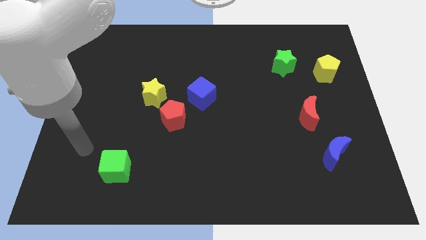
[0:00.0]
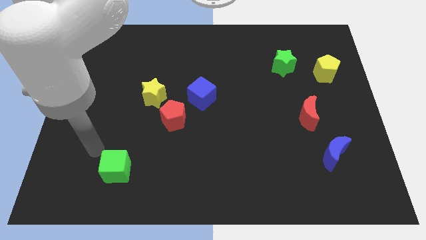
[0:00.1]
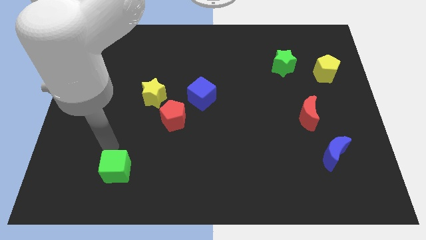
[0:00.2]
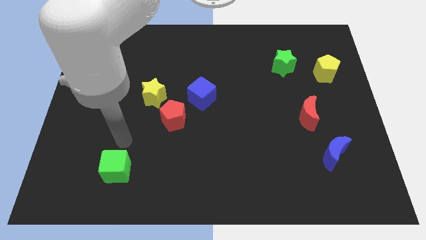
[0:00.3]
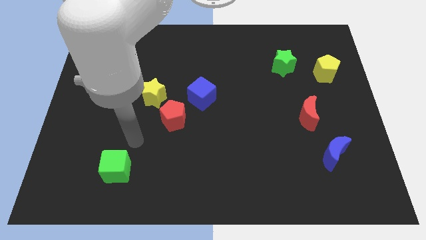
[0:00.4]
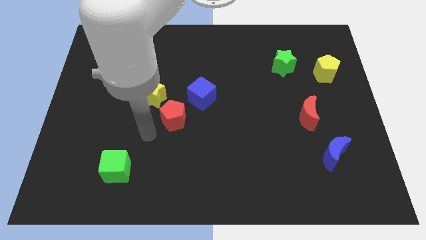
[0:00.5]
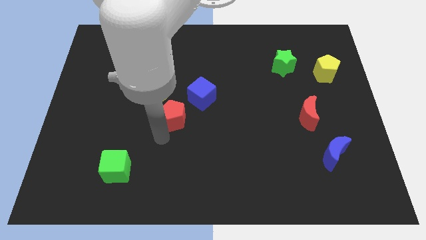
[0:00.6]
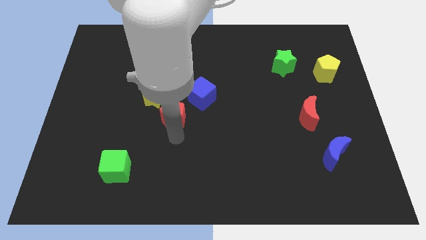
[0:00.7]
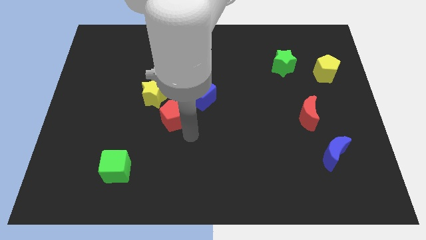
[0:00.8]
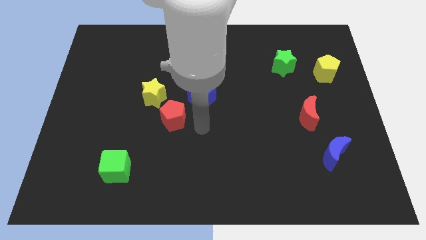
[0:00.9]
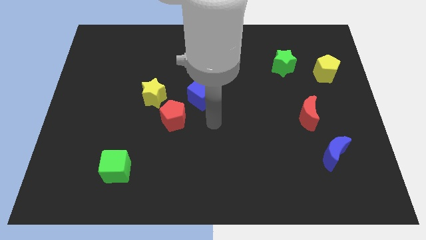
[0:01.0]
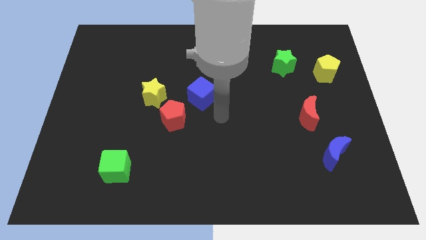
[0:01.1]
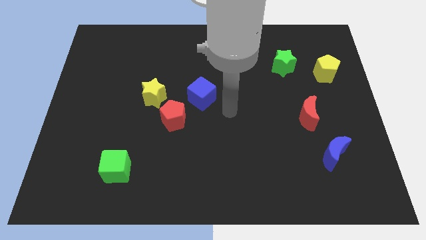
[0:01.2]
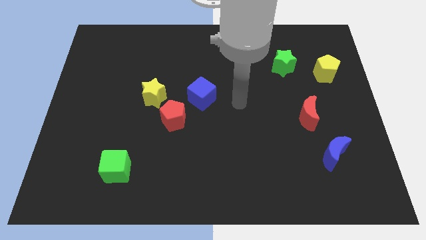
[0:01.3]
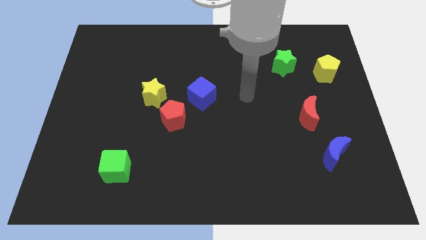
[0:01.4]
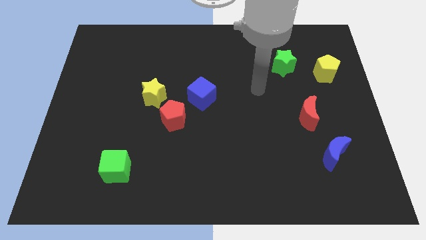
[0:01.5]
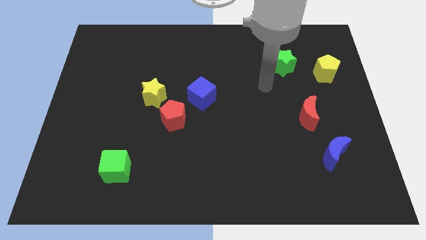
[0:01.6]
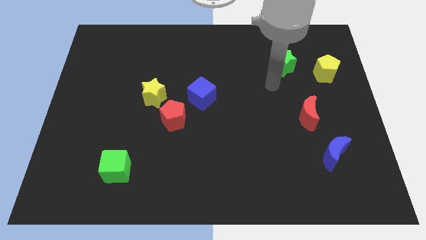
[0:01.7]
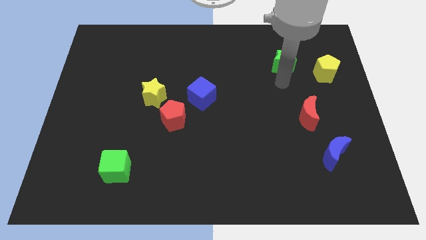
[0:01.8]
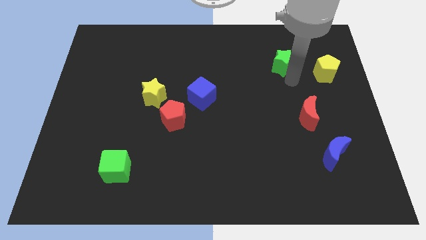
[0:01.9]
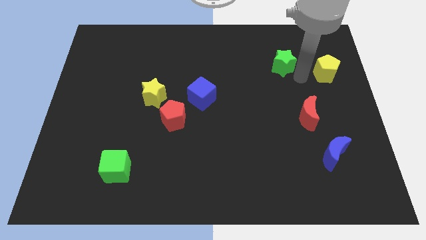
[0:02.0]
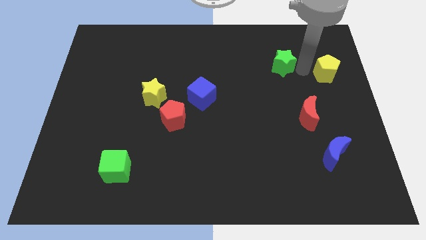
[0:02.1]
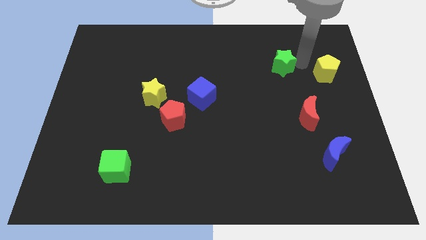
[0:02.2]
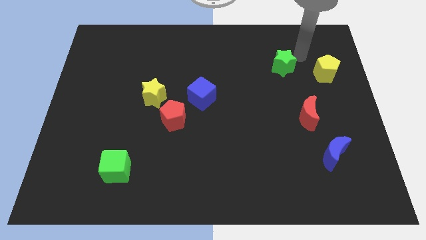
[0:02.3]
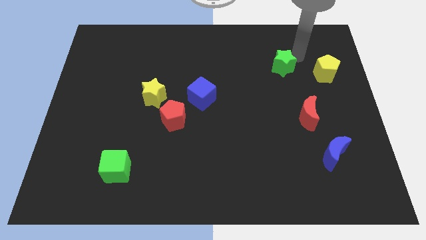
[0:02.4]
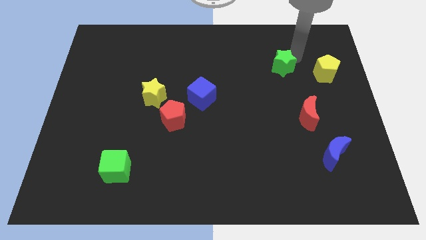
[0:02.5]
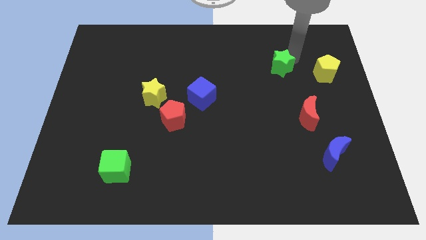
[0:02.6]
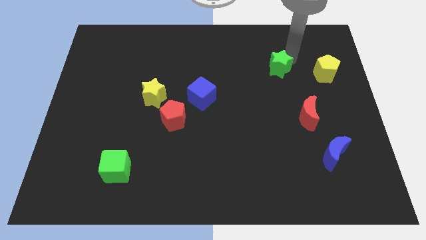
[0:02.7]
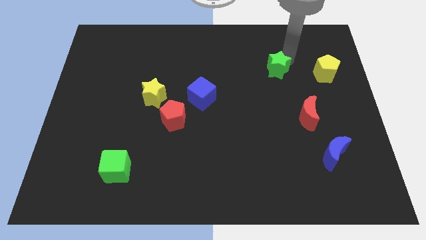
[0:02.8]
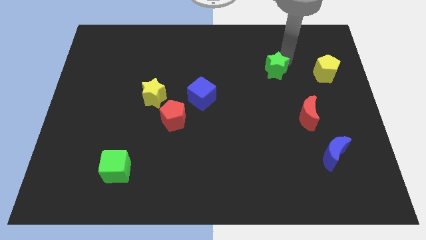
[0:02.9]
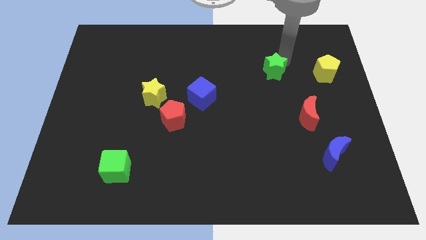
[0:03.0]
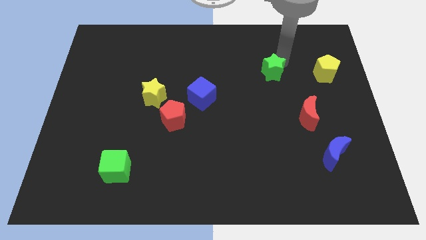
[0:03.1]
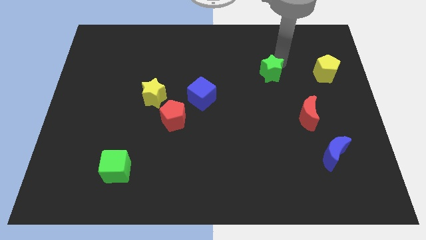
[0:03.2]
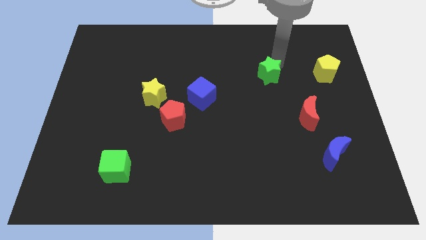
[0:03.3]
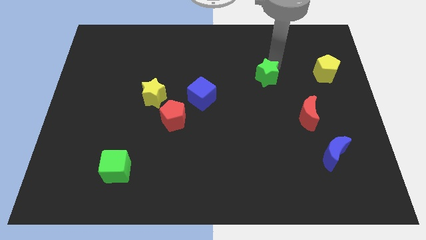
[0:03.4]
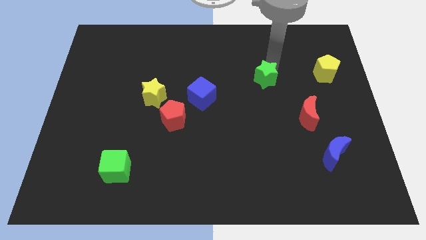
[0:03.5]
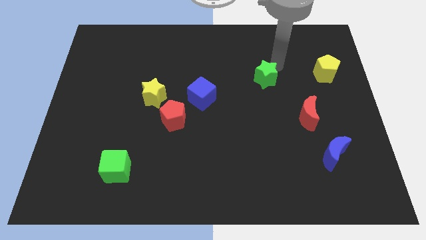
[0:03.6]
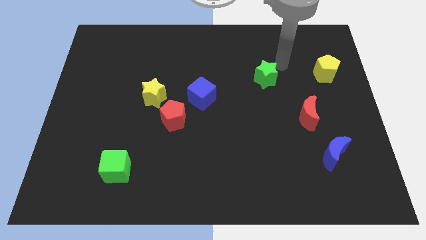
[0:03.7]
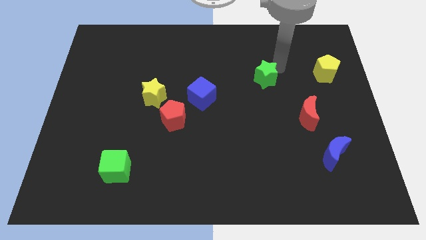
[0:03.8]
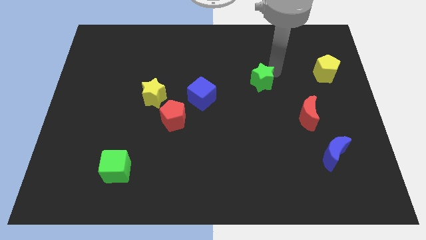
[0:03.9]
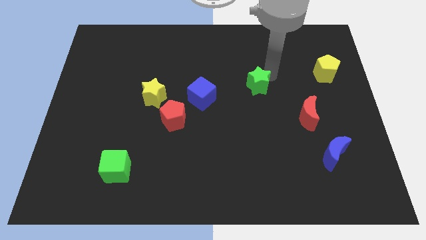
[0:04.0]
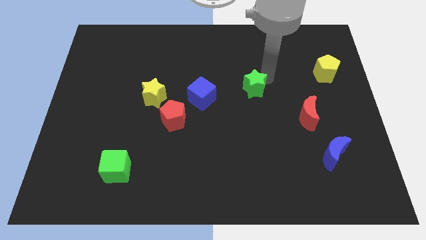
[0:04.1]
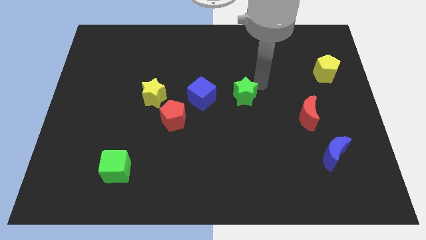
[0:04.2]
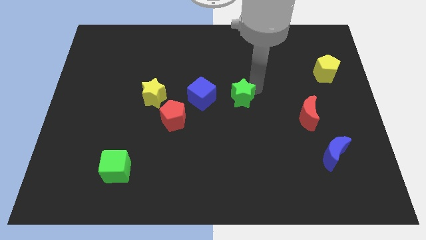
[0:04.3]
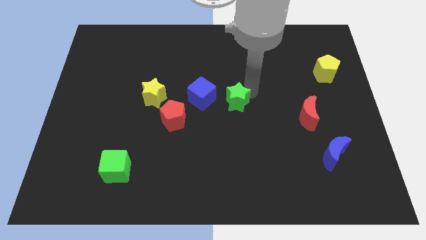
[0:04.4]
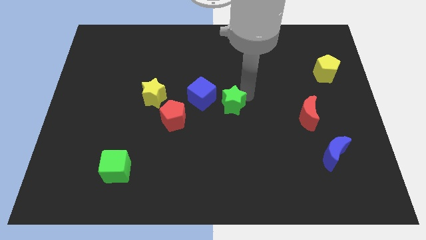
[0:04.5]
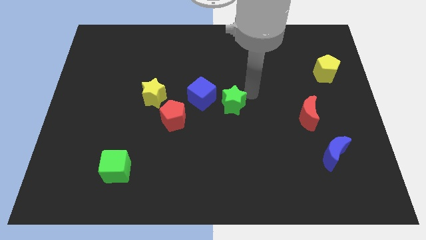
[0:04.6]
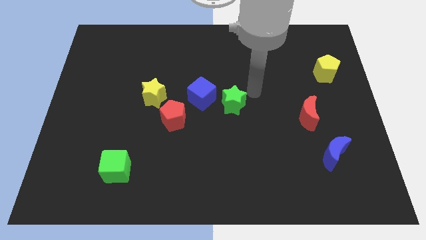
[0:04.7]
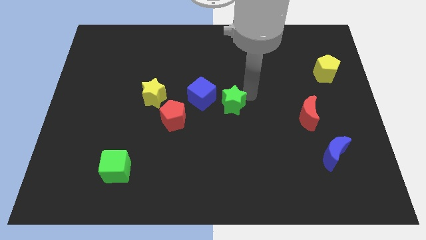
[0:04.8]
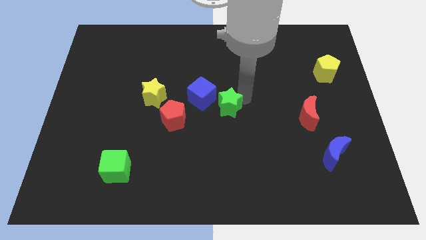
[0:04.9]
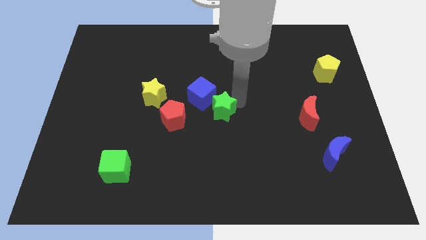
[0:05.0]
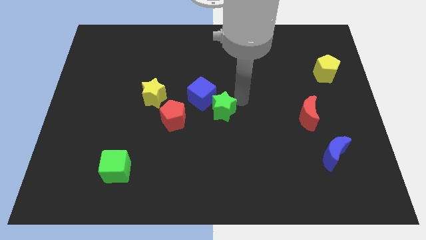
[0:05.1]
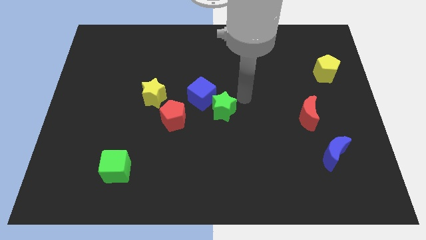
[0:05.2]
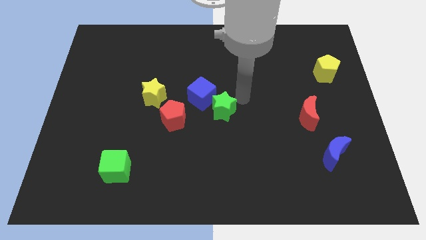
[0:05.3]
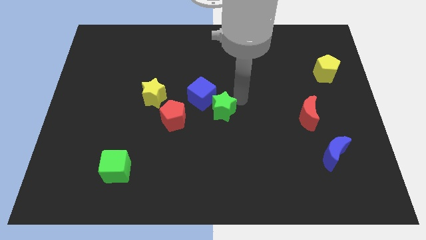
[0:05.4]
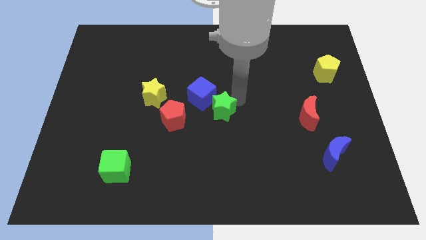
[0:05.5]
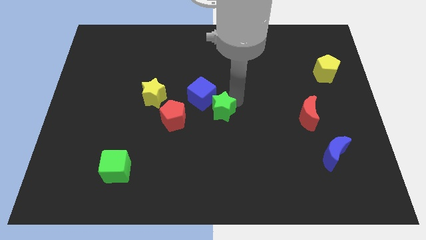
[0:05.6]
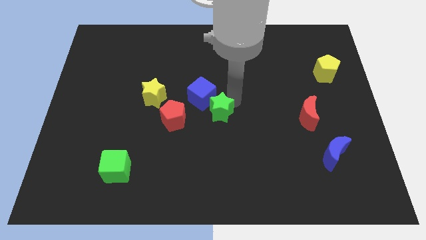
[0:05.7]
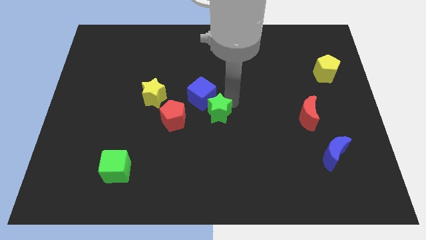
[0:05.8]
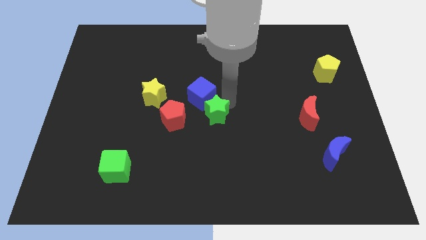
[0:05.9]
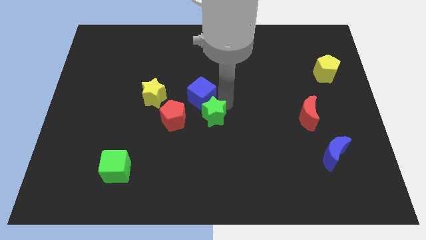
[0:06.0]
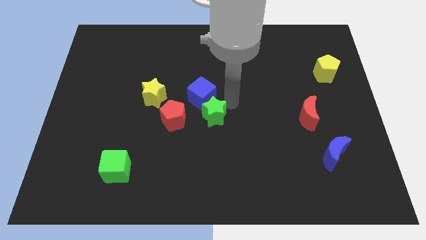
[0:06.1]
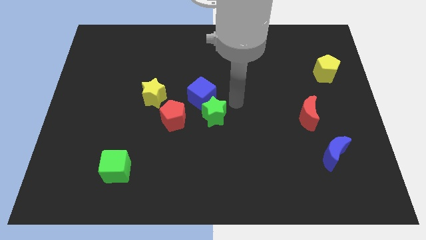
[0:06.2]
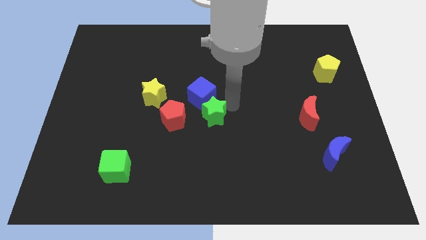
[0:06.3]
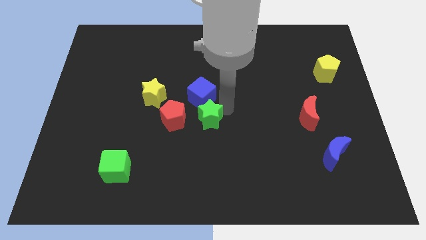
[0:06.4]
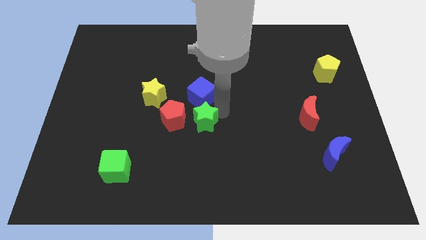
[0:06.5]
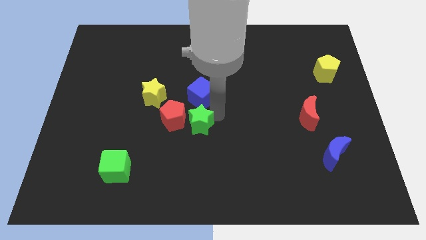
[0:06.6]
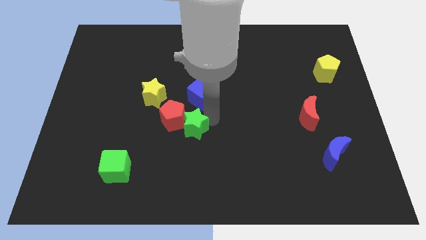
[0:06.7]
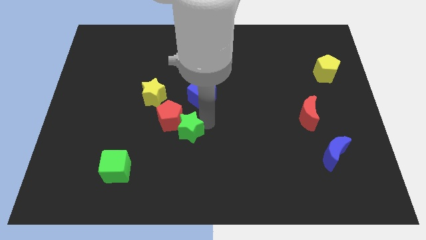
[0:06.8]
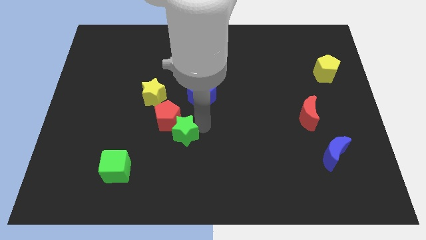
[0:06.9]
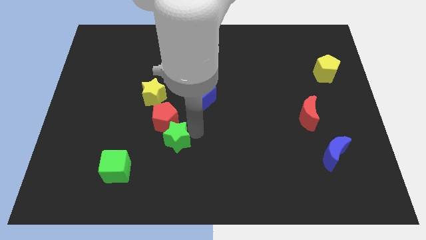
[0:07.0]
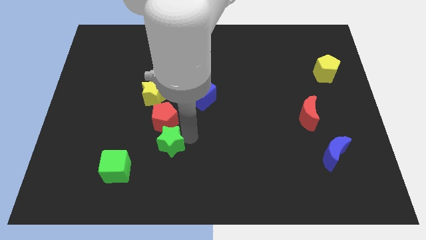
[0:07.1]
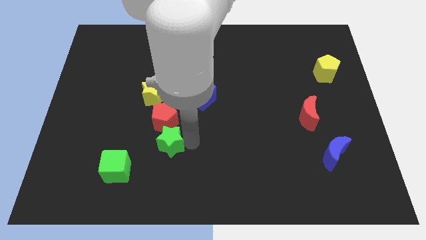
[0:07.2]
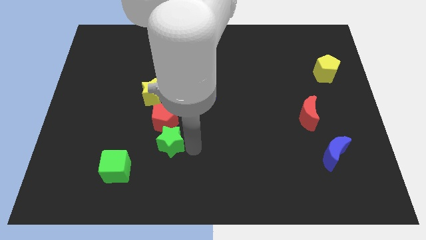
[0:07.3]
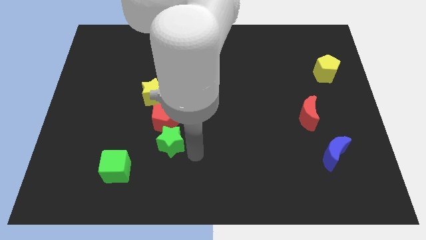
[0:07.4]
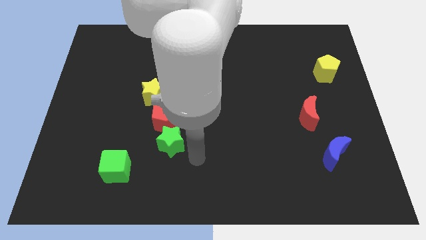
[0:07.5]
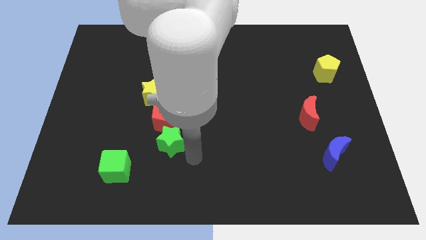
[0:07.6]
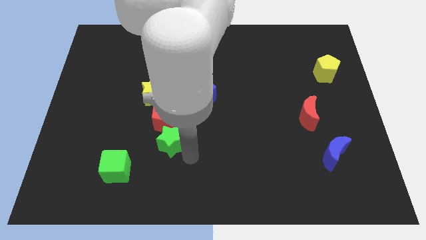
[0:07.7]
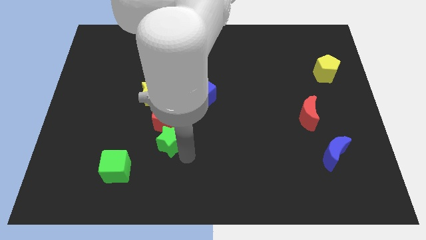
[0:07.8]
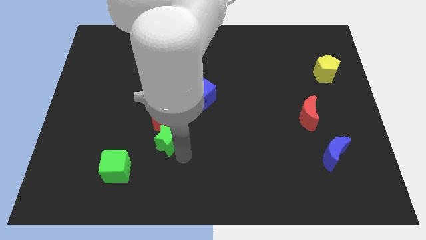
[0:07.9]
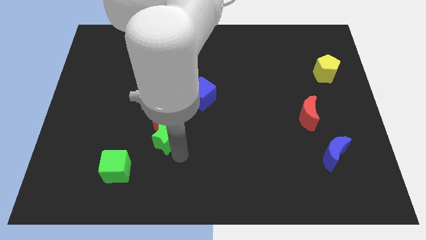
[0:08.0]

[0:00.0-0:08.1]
put the green star below the yellow star
